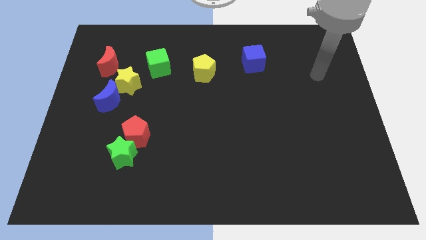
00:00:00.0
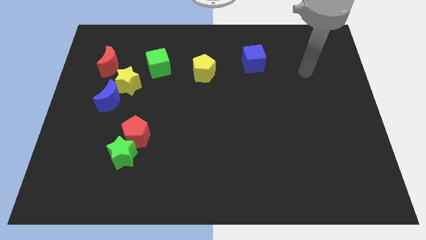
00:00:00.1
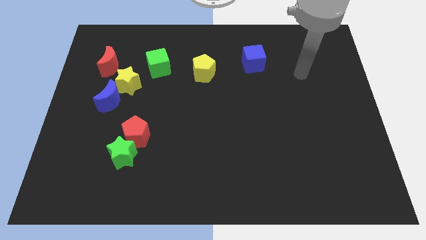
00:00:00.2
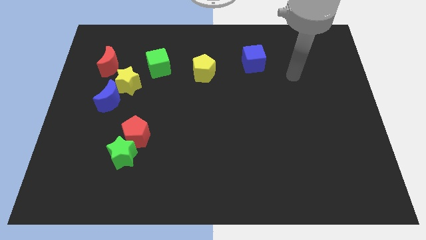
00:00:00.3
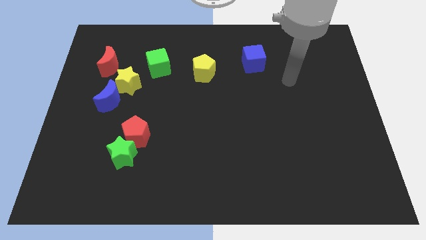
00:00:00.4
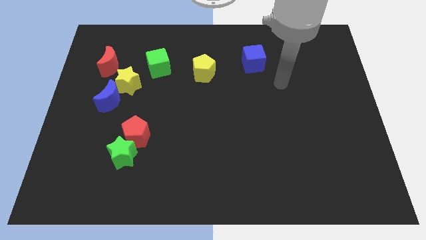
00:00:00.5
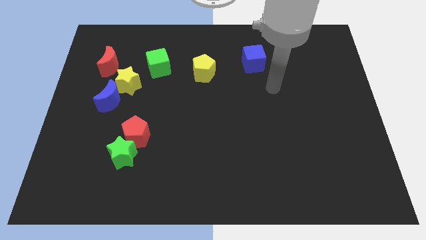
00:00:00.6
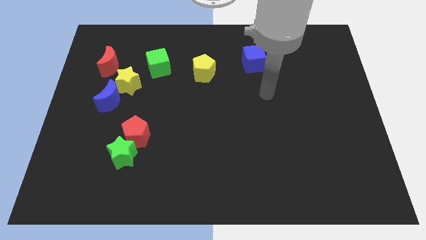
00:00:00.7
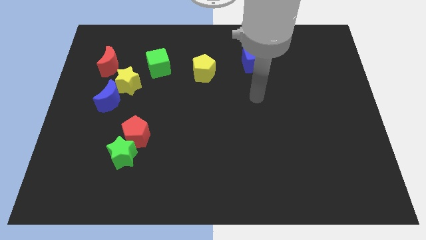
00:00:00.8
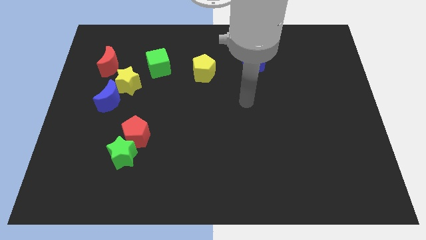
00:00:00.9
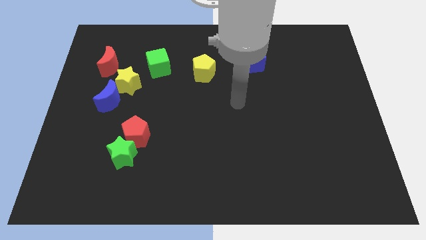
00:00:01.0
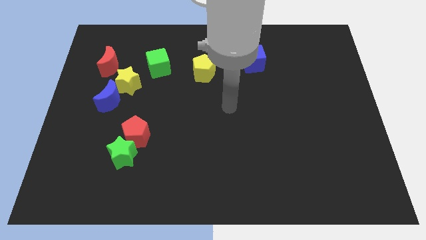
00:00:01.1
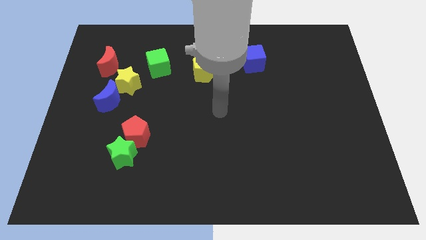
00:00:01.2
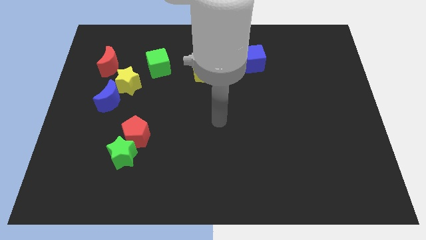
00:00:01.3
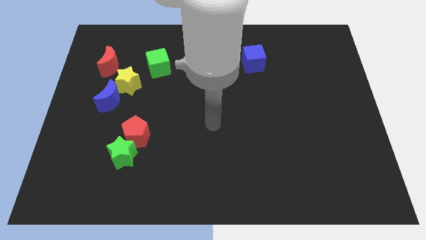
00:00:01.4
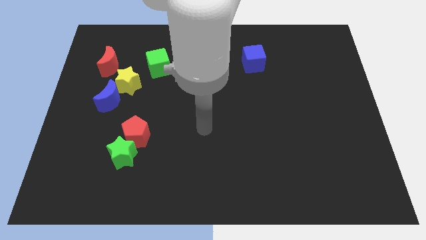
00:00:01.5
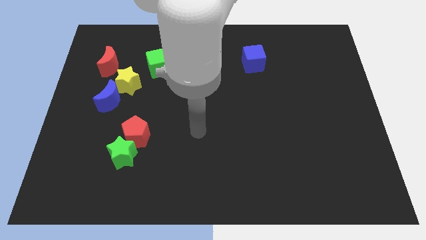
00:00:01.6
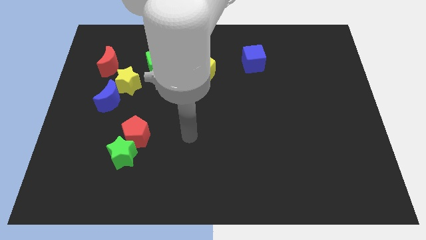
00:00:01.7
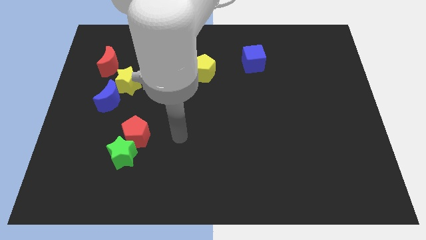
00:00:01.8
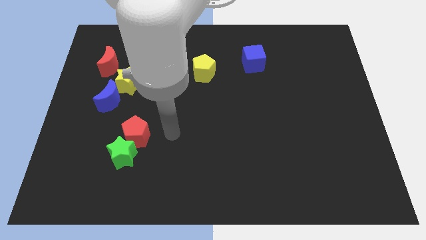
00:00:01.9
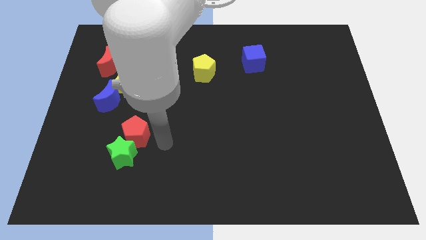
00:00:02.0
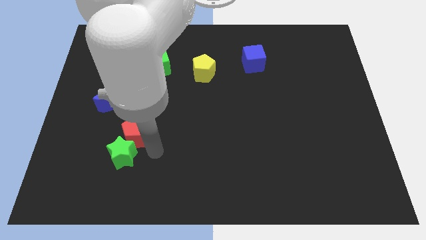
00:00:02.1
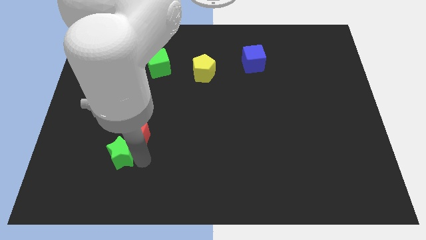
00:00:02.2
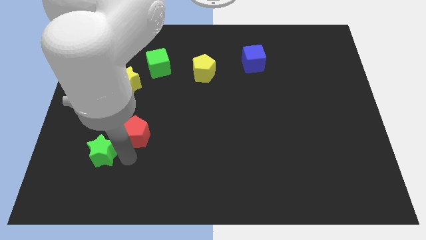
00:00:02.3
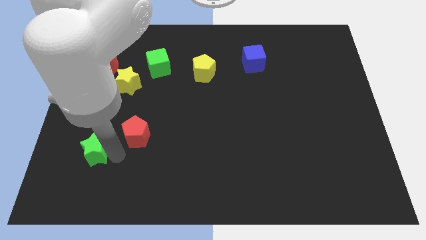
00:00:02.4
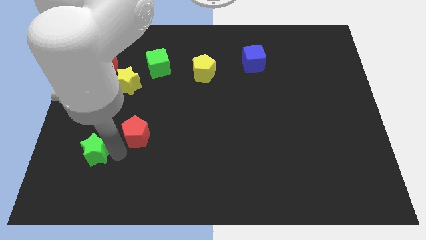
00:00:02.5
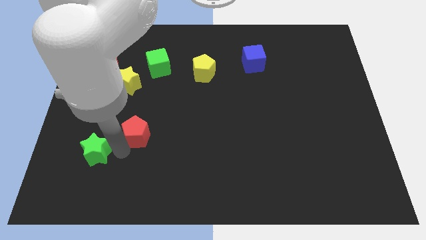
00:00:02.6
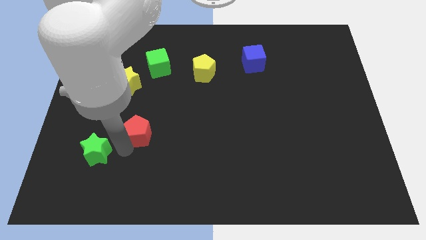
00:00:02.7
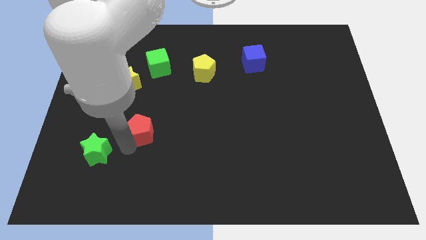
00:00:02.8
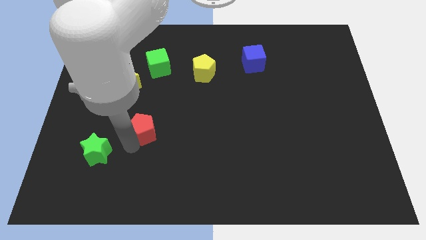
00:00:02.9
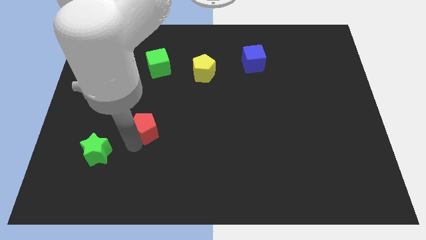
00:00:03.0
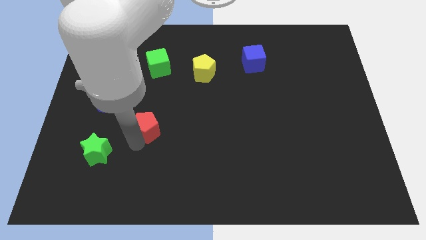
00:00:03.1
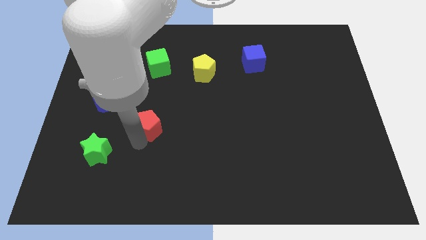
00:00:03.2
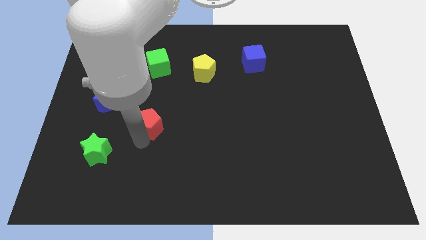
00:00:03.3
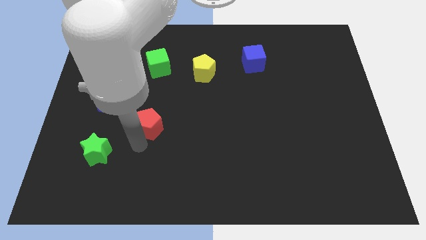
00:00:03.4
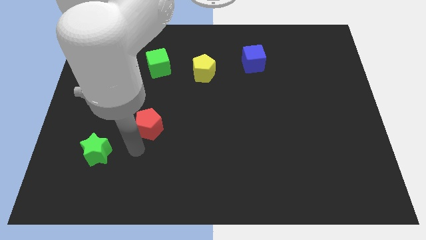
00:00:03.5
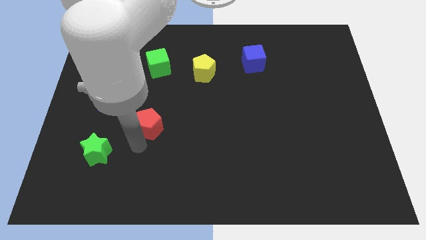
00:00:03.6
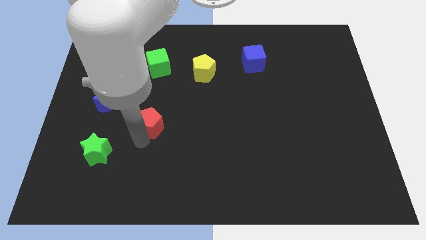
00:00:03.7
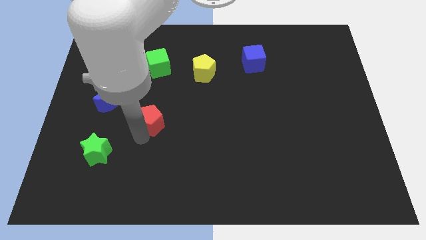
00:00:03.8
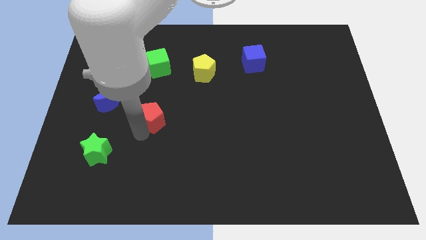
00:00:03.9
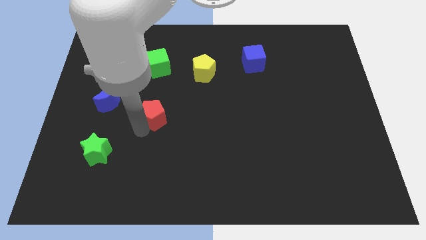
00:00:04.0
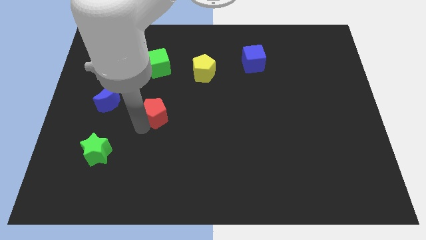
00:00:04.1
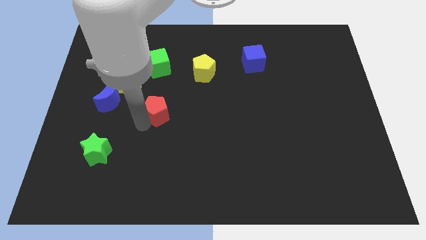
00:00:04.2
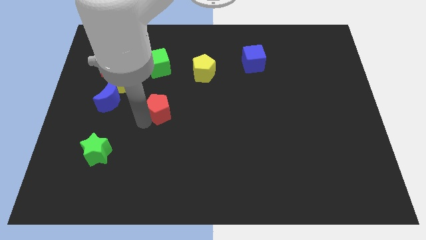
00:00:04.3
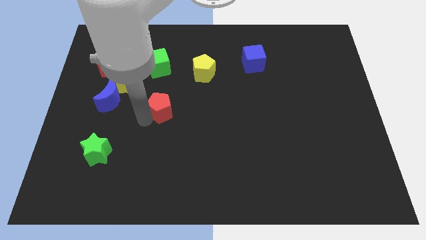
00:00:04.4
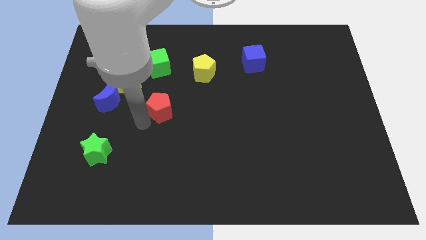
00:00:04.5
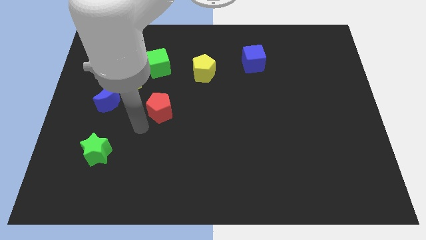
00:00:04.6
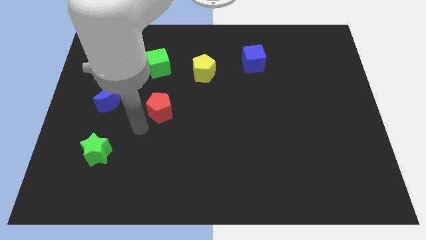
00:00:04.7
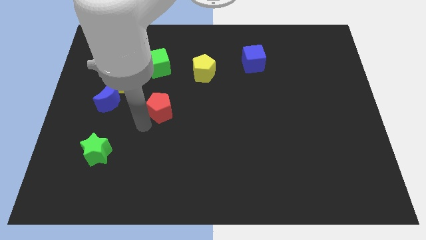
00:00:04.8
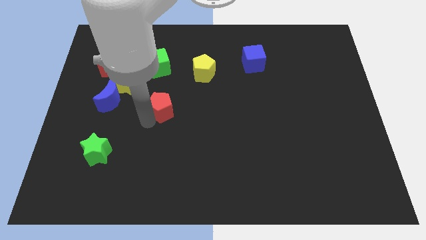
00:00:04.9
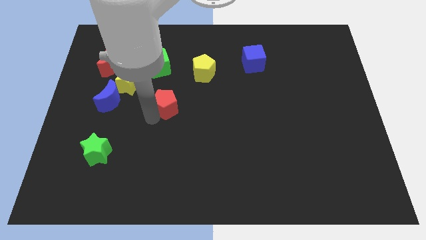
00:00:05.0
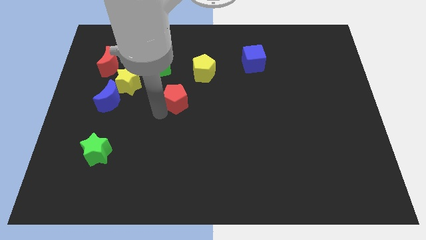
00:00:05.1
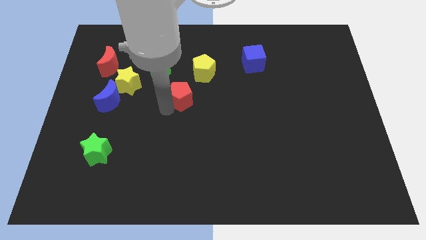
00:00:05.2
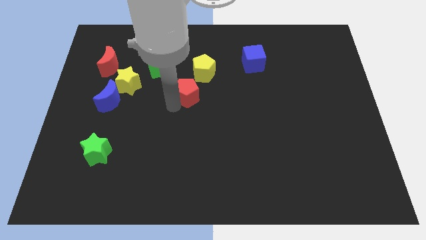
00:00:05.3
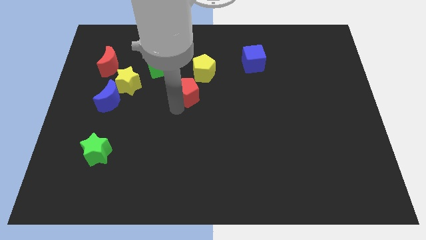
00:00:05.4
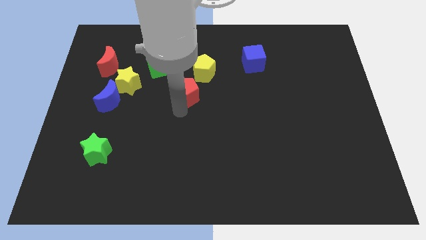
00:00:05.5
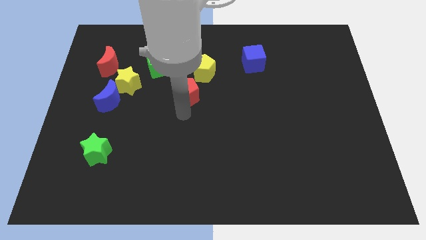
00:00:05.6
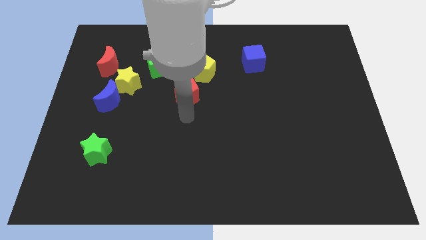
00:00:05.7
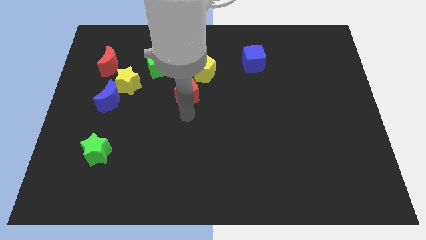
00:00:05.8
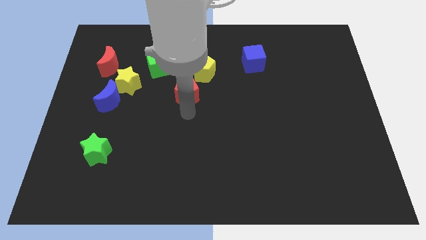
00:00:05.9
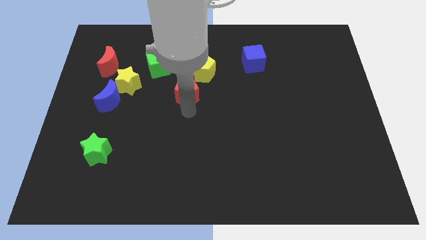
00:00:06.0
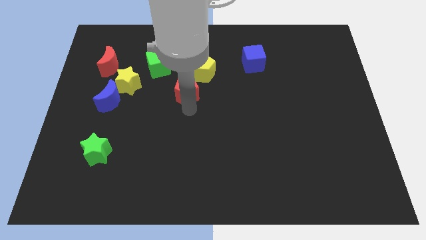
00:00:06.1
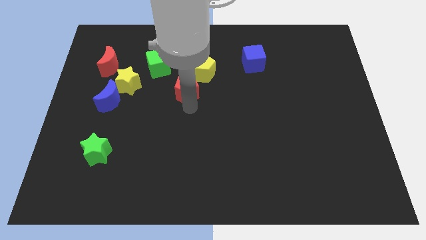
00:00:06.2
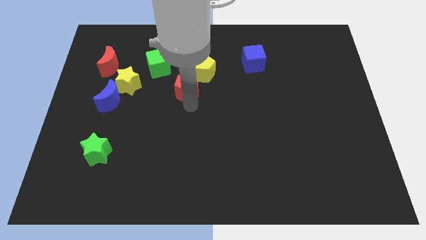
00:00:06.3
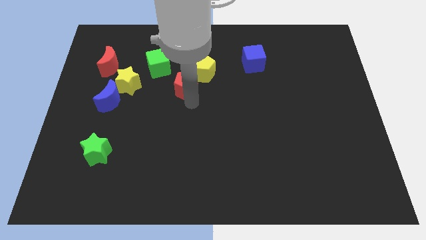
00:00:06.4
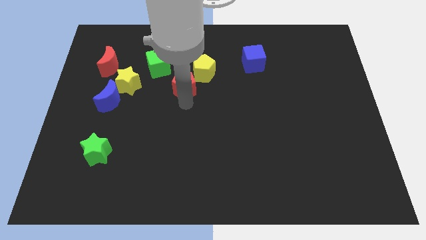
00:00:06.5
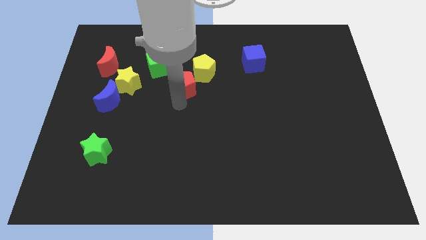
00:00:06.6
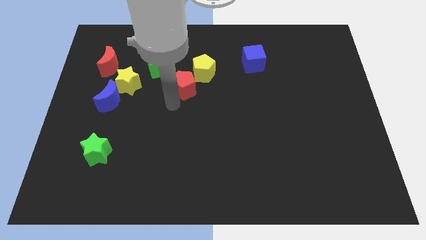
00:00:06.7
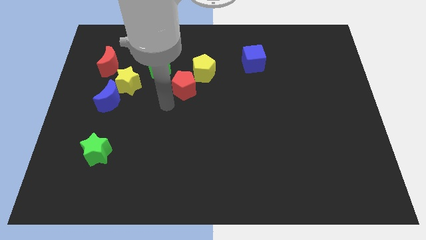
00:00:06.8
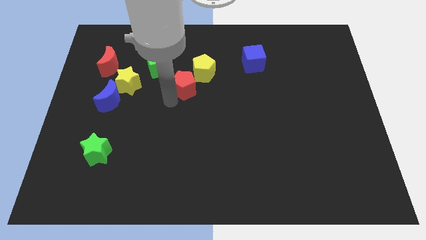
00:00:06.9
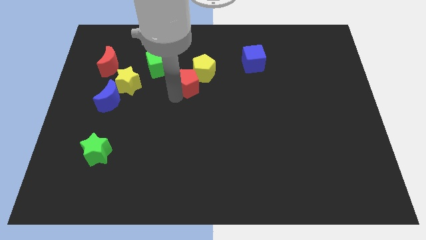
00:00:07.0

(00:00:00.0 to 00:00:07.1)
push the red pentagon next to the yellow pentagon
